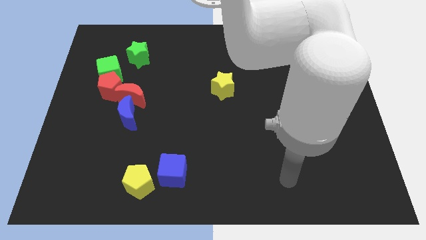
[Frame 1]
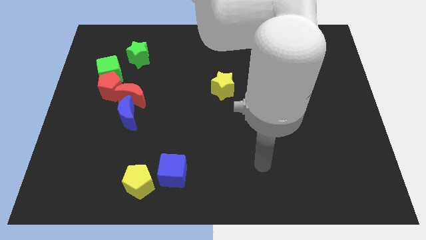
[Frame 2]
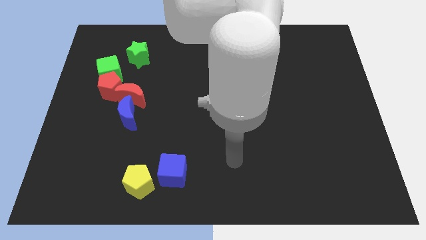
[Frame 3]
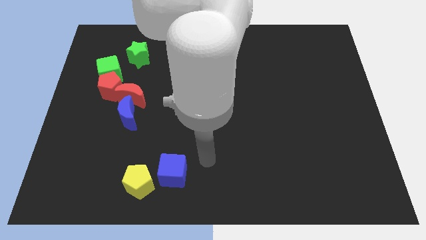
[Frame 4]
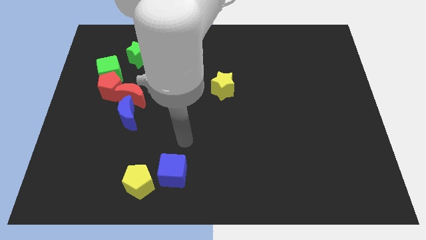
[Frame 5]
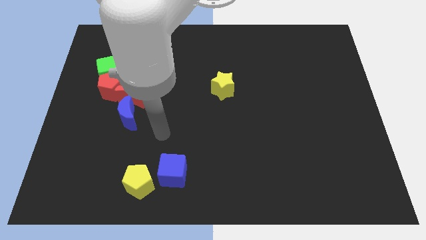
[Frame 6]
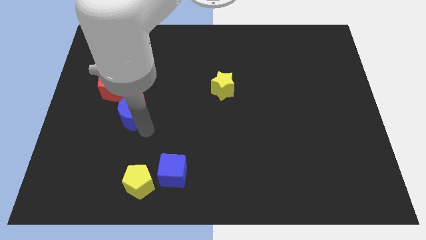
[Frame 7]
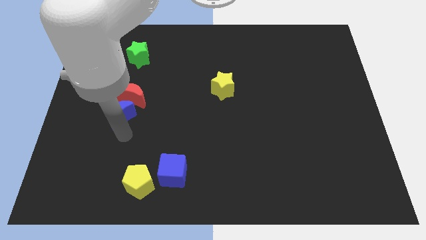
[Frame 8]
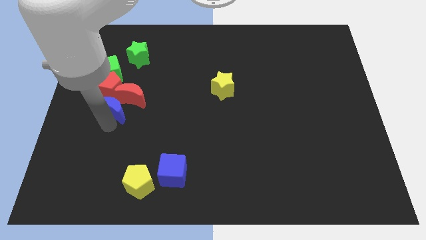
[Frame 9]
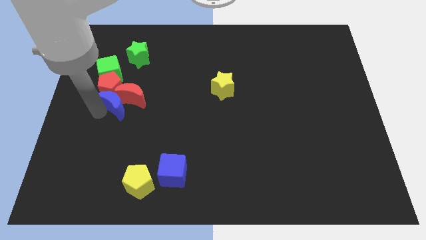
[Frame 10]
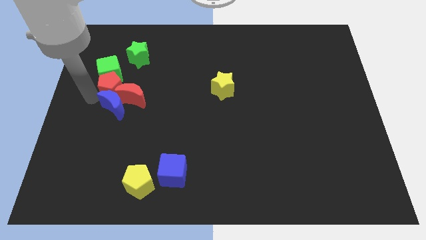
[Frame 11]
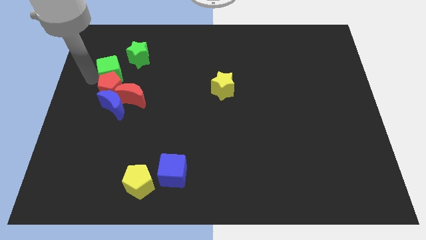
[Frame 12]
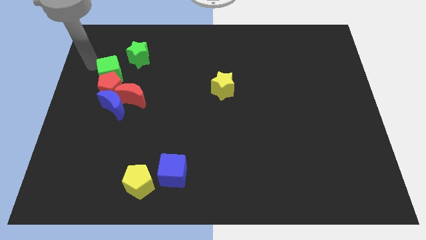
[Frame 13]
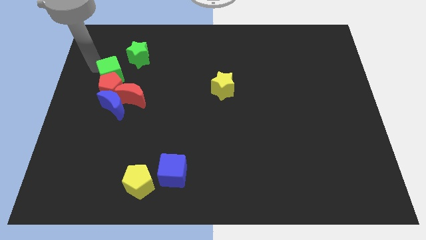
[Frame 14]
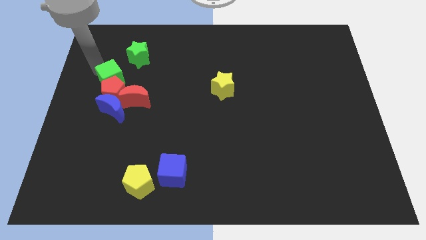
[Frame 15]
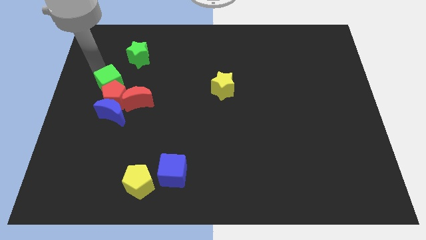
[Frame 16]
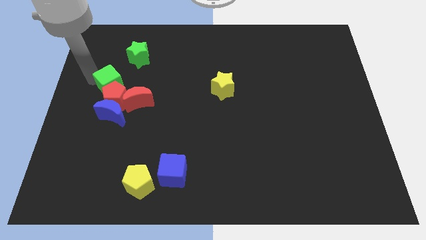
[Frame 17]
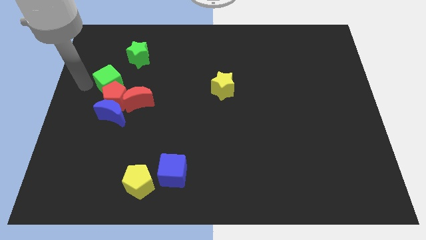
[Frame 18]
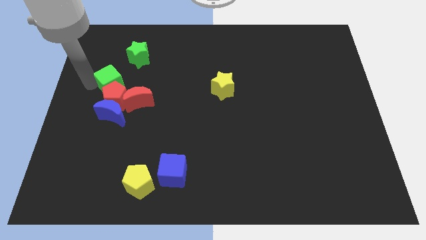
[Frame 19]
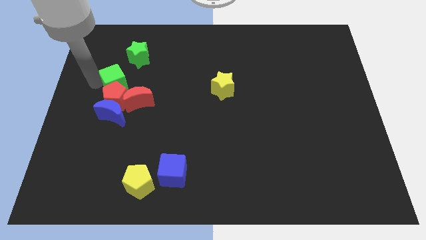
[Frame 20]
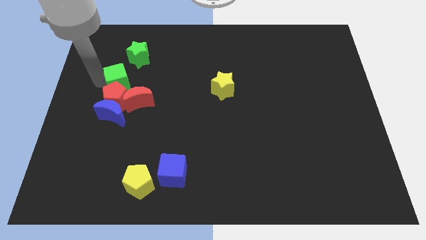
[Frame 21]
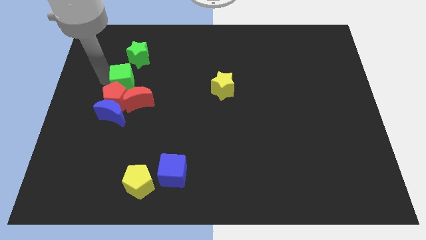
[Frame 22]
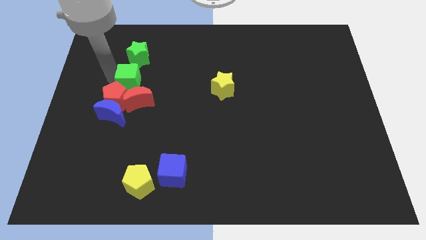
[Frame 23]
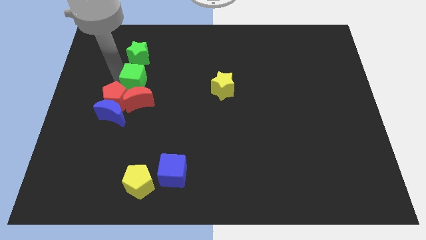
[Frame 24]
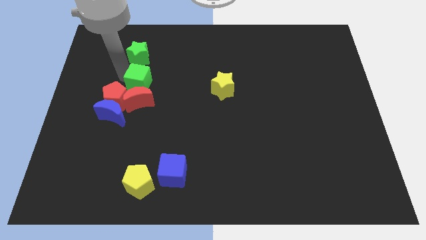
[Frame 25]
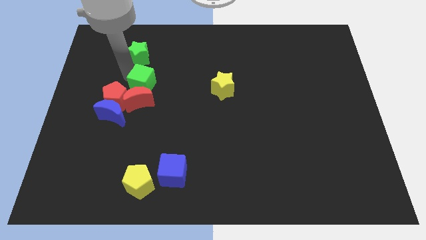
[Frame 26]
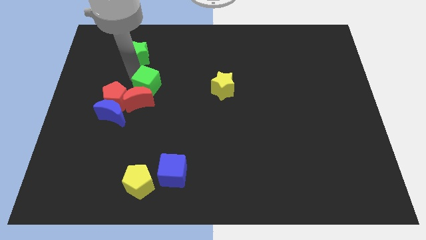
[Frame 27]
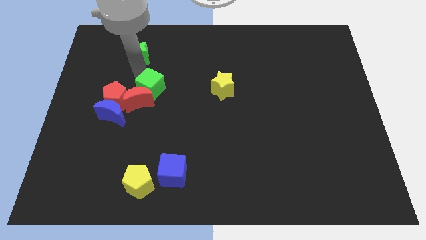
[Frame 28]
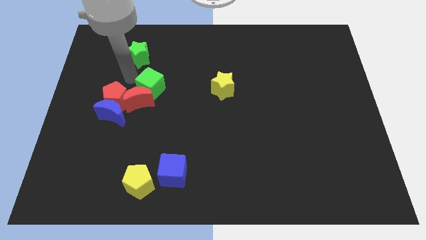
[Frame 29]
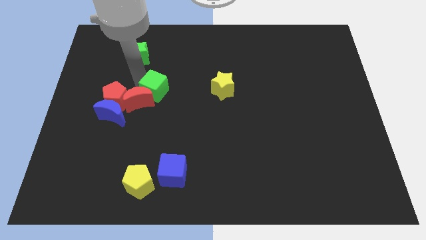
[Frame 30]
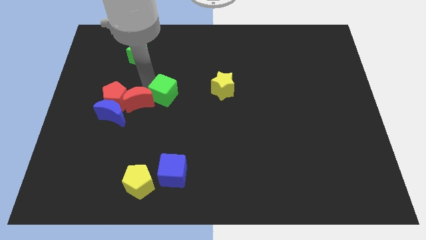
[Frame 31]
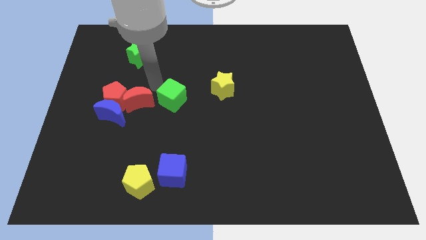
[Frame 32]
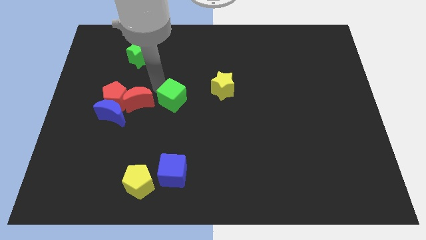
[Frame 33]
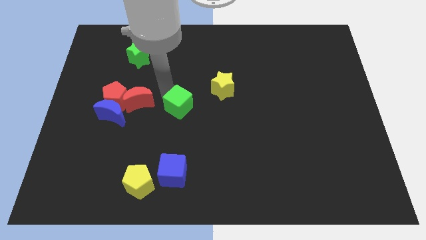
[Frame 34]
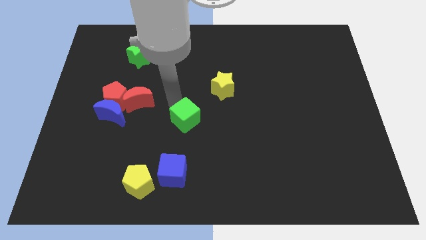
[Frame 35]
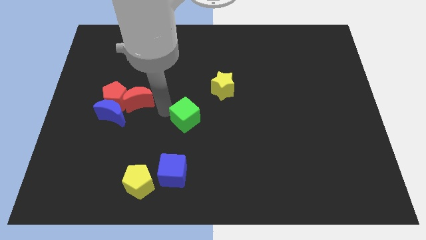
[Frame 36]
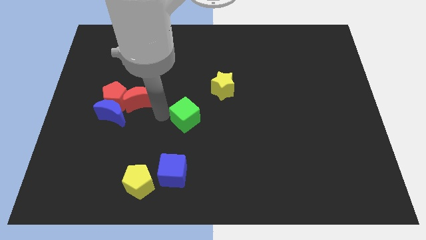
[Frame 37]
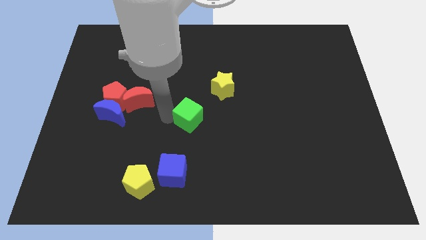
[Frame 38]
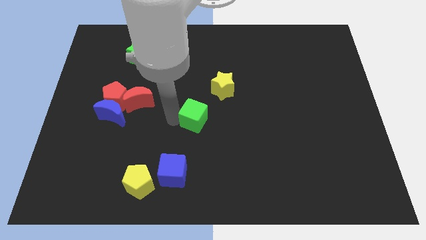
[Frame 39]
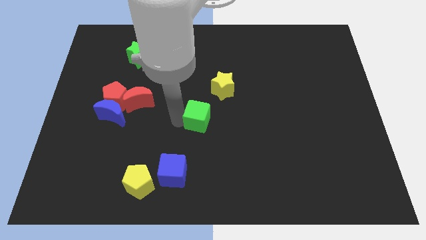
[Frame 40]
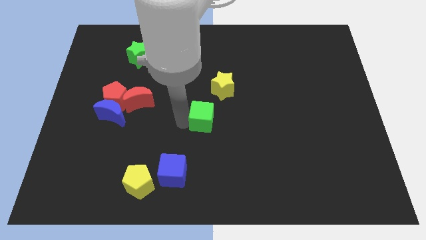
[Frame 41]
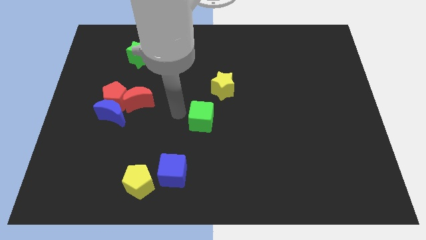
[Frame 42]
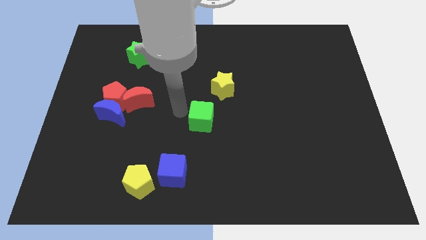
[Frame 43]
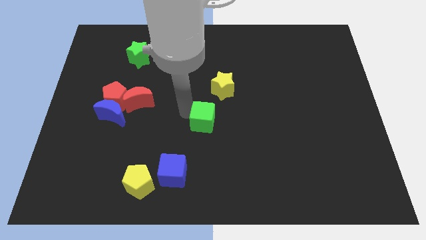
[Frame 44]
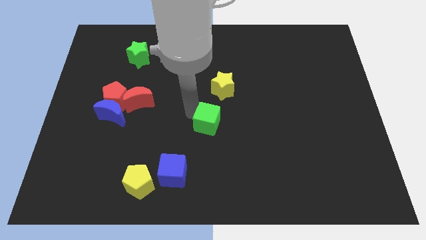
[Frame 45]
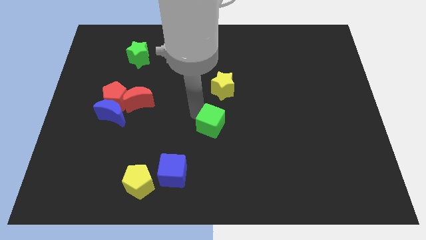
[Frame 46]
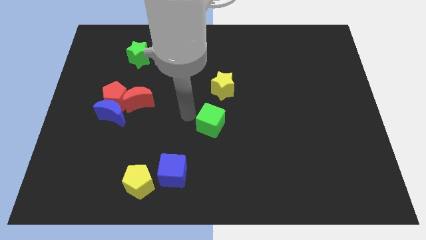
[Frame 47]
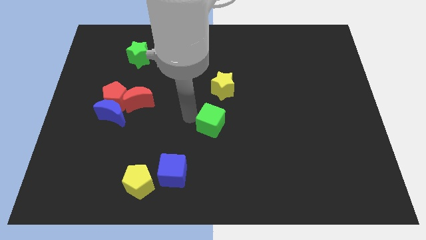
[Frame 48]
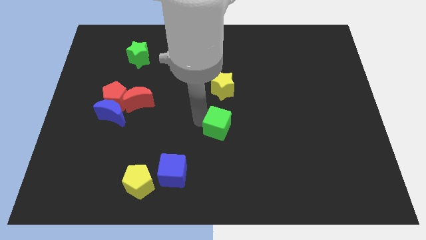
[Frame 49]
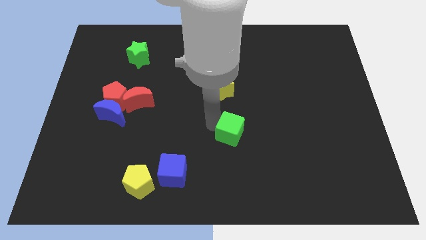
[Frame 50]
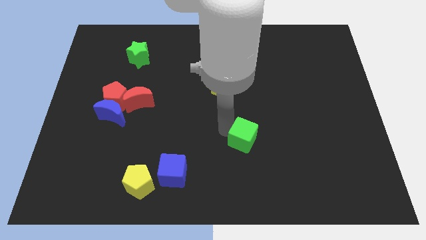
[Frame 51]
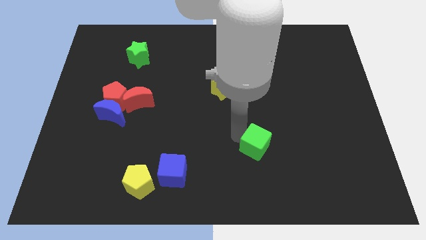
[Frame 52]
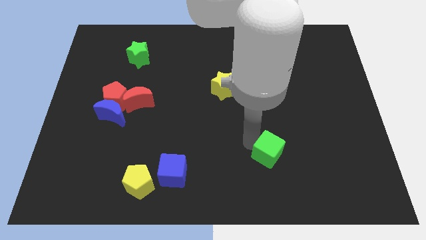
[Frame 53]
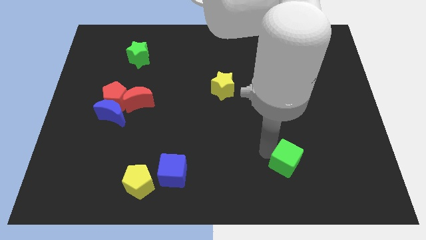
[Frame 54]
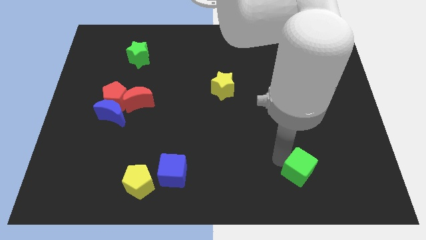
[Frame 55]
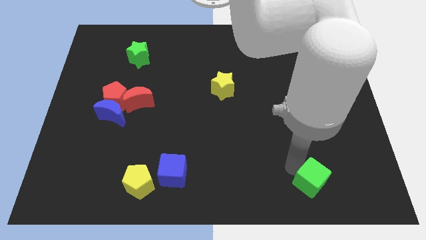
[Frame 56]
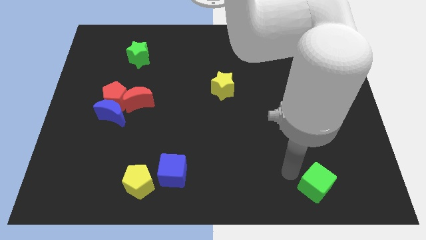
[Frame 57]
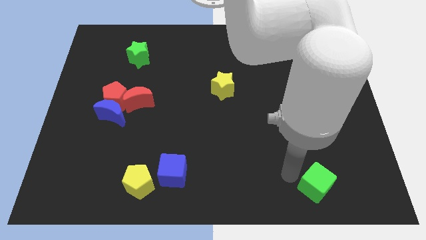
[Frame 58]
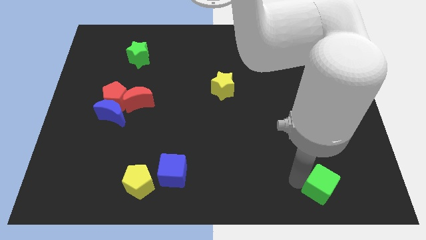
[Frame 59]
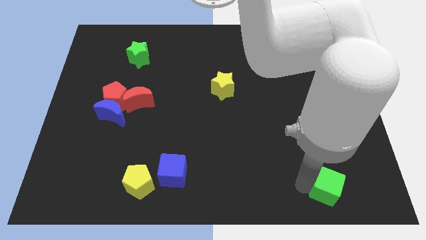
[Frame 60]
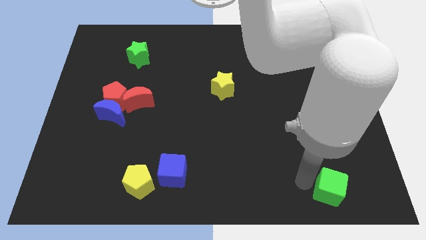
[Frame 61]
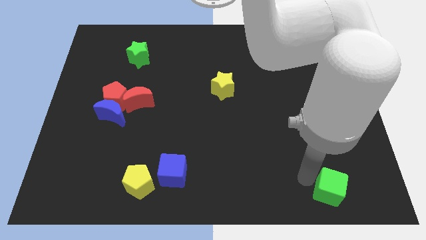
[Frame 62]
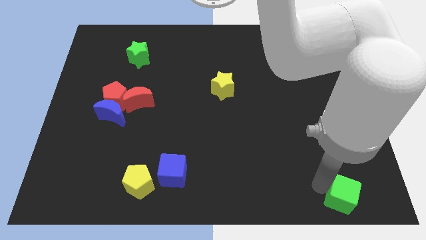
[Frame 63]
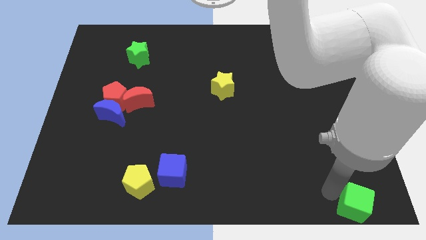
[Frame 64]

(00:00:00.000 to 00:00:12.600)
push the green cube to the bottom right corner
